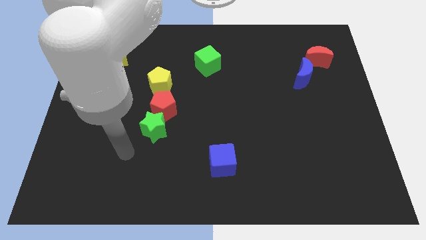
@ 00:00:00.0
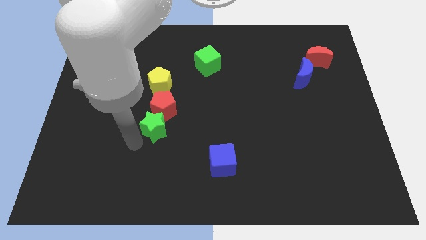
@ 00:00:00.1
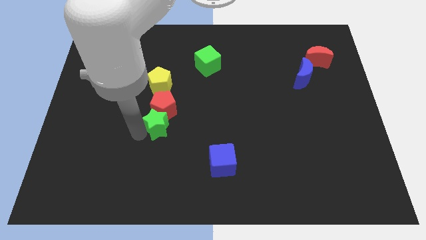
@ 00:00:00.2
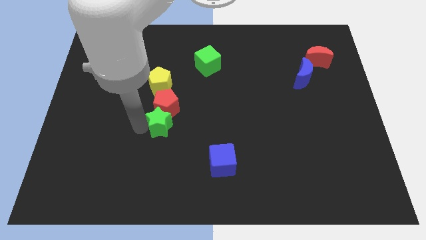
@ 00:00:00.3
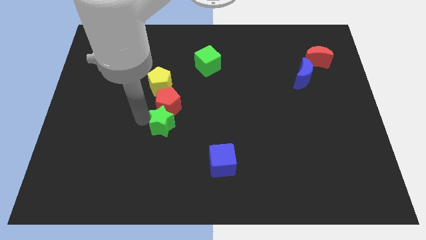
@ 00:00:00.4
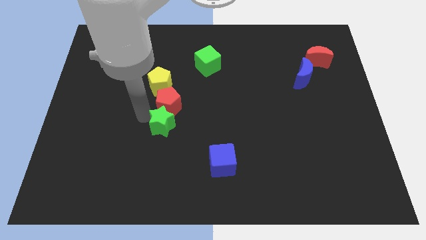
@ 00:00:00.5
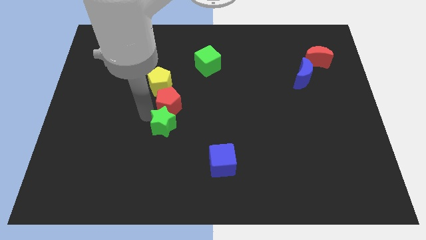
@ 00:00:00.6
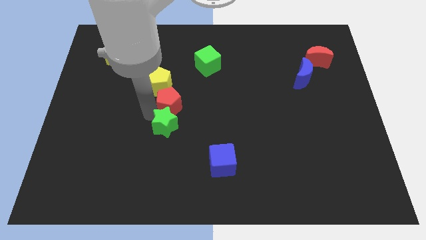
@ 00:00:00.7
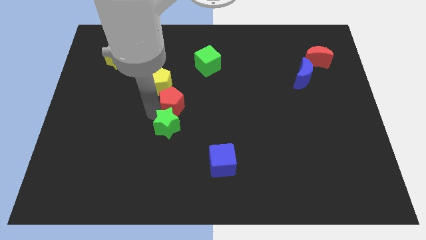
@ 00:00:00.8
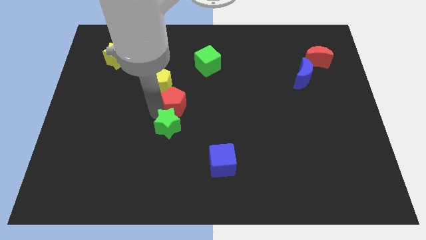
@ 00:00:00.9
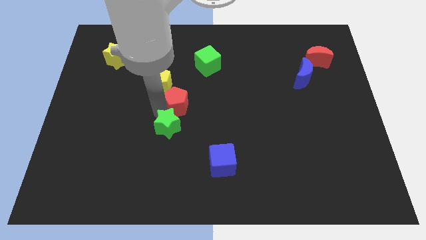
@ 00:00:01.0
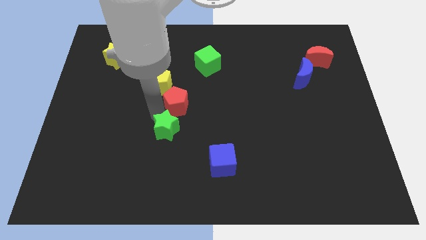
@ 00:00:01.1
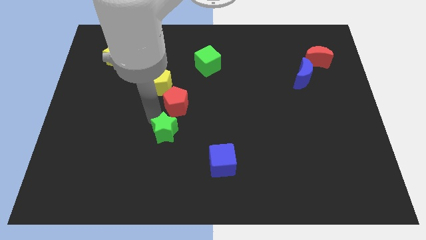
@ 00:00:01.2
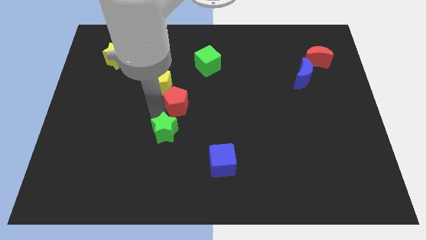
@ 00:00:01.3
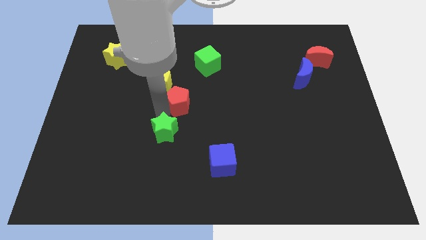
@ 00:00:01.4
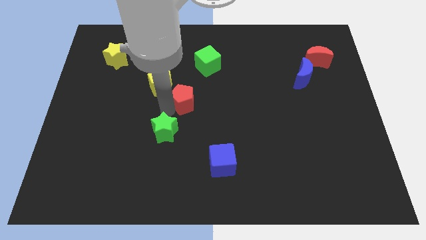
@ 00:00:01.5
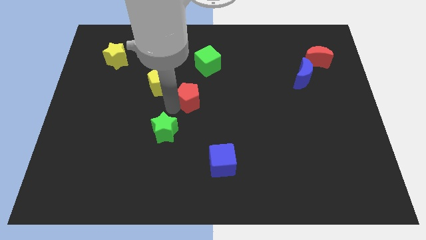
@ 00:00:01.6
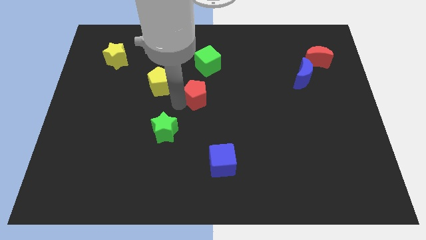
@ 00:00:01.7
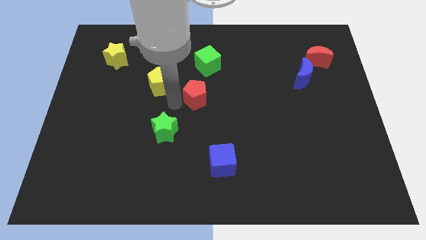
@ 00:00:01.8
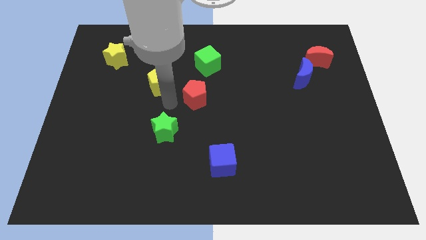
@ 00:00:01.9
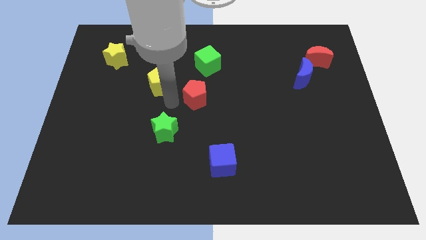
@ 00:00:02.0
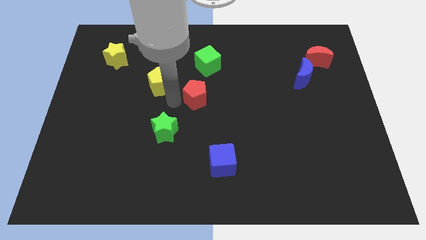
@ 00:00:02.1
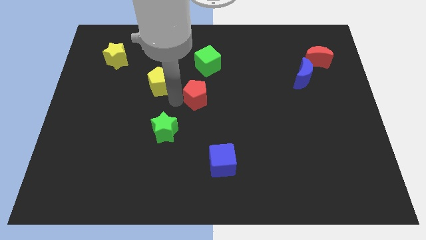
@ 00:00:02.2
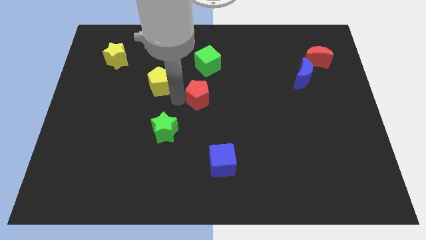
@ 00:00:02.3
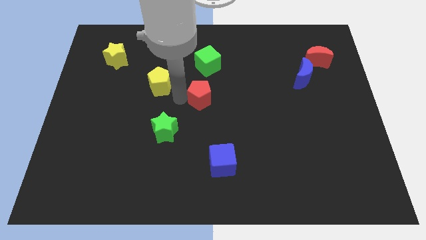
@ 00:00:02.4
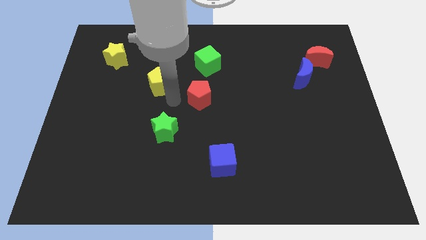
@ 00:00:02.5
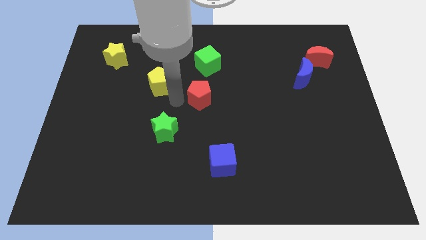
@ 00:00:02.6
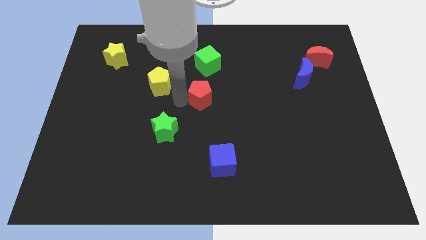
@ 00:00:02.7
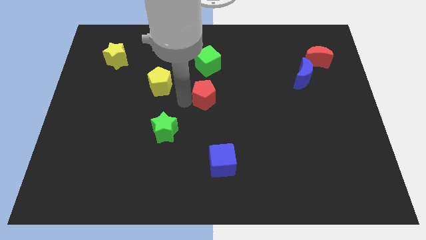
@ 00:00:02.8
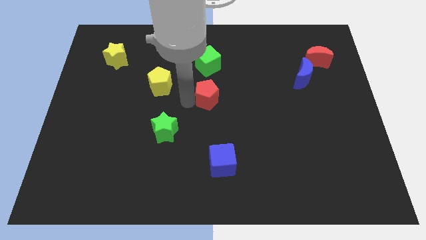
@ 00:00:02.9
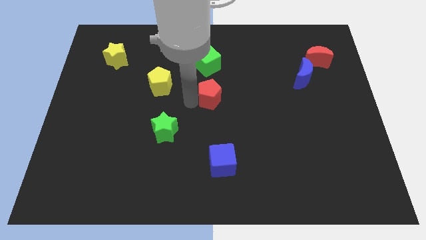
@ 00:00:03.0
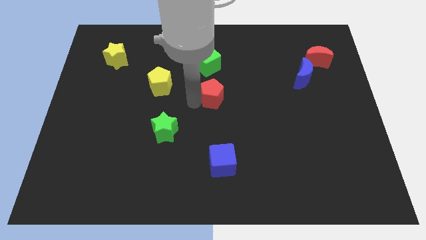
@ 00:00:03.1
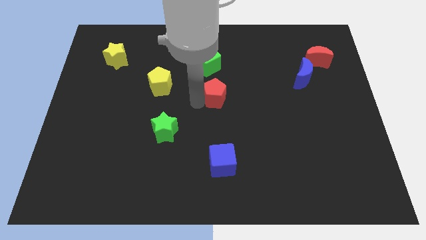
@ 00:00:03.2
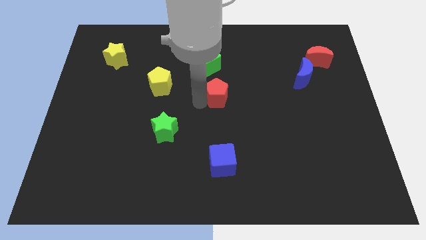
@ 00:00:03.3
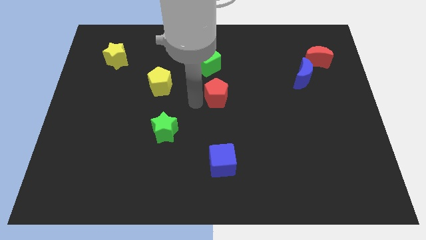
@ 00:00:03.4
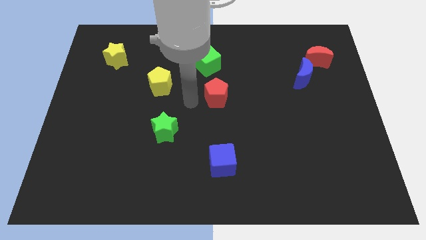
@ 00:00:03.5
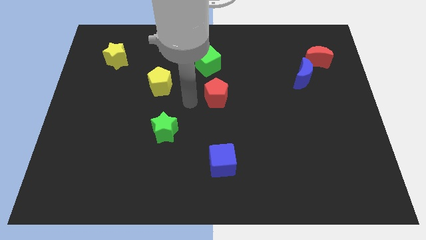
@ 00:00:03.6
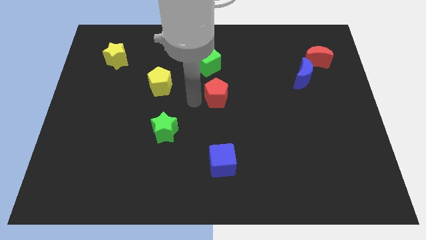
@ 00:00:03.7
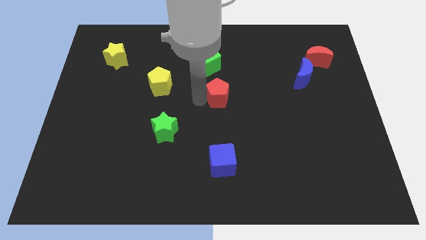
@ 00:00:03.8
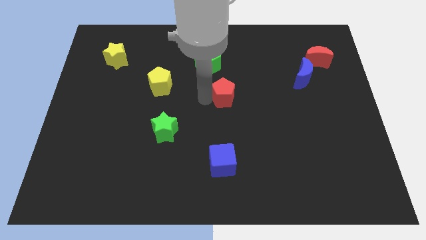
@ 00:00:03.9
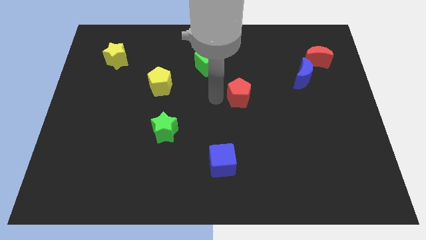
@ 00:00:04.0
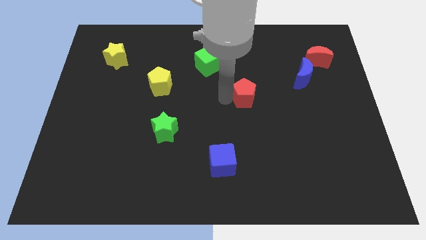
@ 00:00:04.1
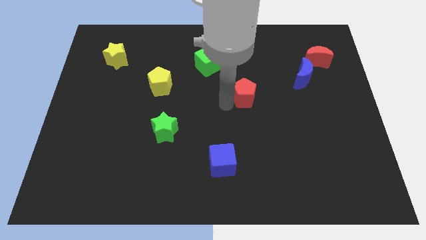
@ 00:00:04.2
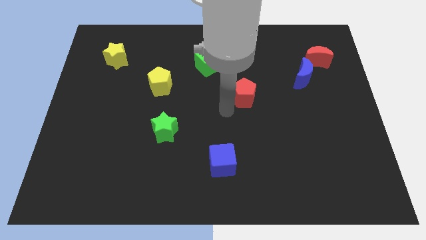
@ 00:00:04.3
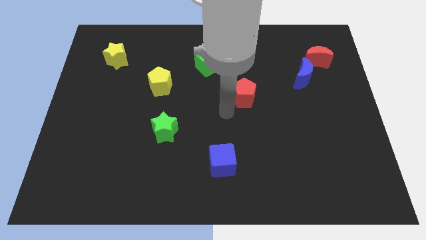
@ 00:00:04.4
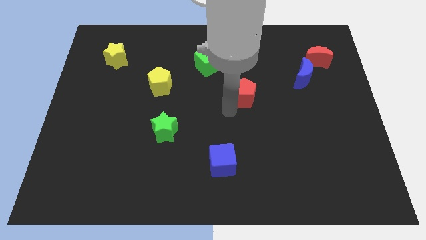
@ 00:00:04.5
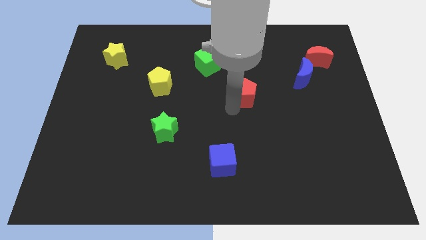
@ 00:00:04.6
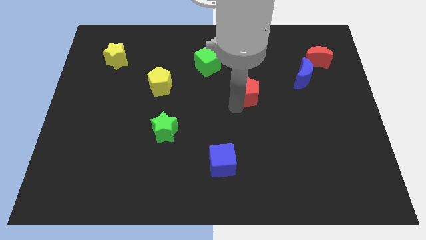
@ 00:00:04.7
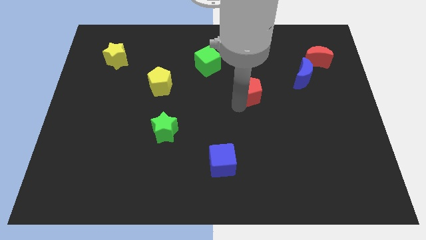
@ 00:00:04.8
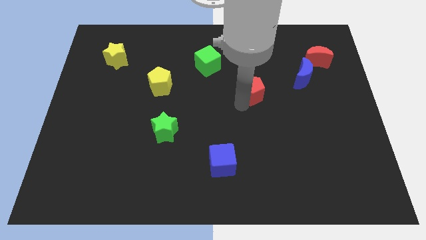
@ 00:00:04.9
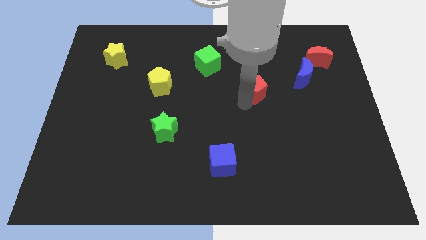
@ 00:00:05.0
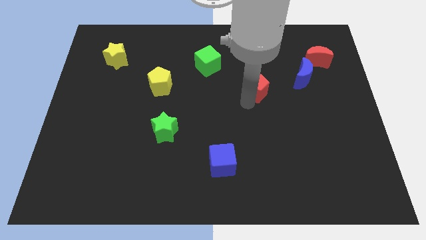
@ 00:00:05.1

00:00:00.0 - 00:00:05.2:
move the red pentagon to the left side of the blue moon
